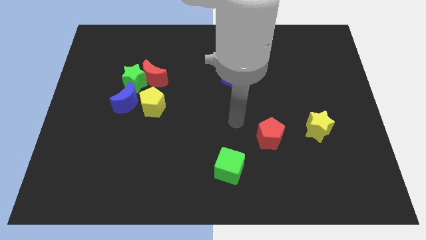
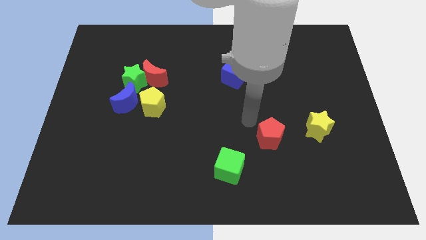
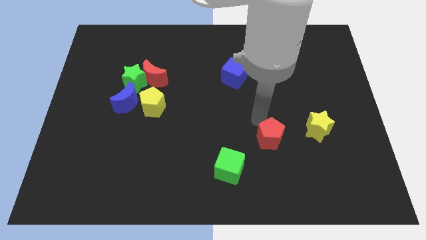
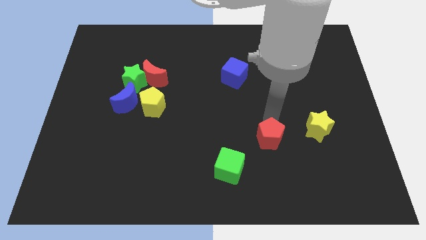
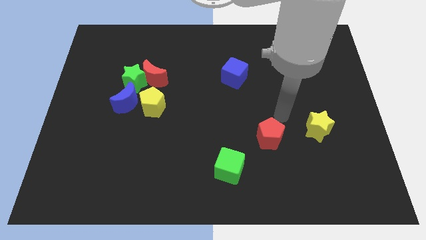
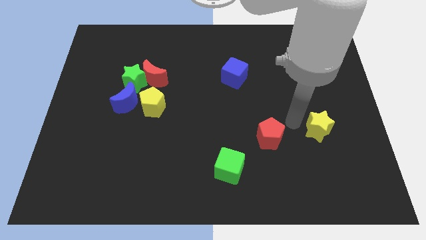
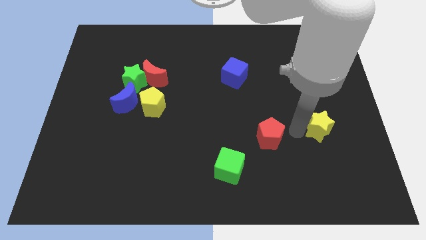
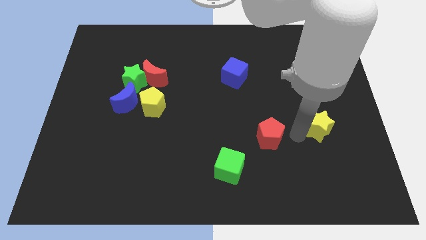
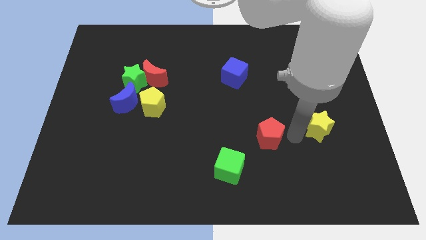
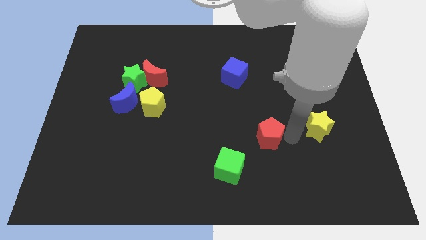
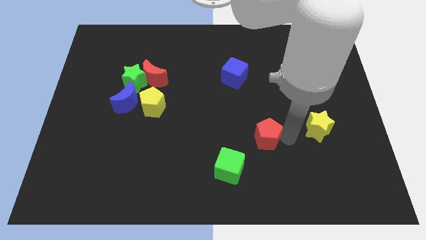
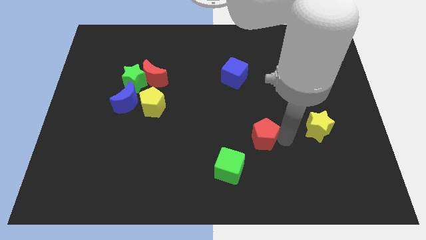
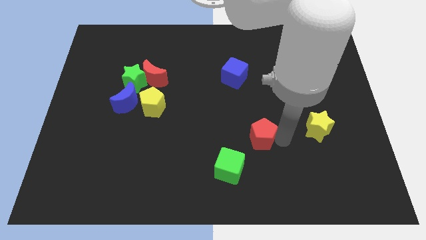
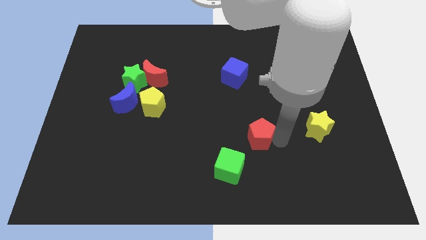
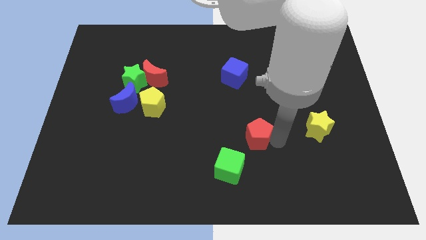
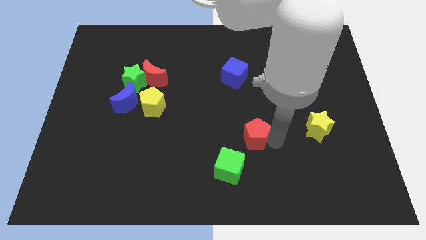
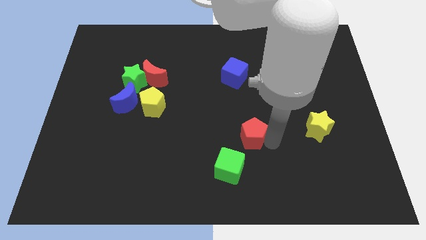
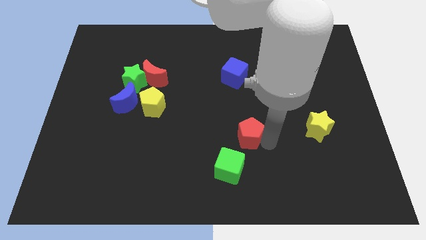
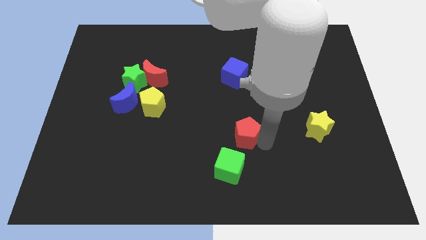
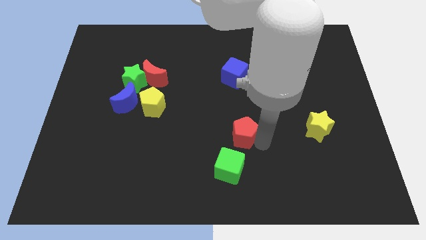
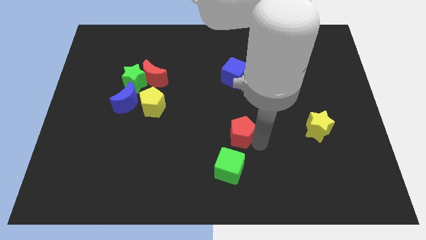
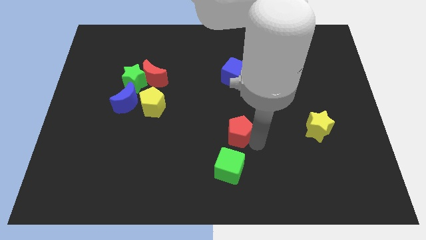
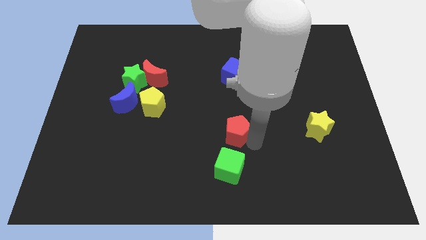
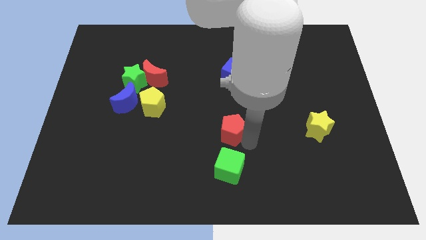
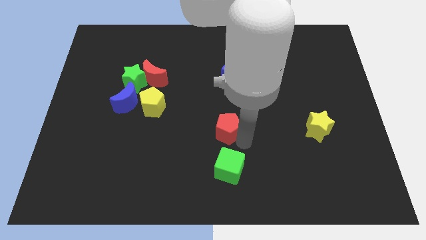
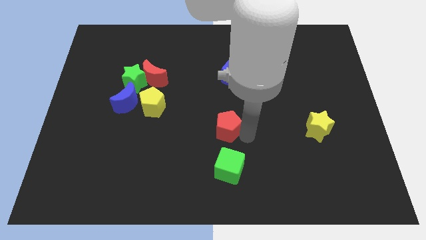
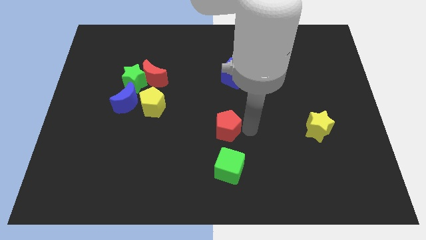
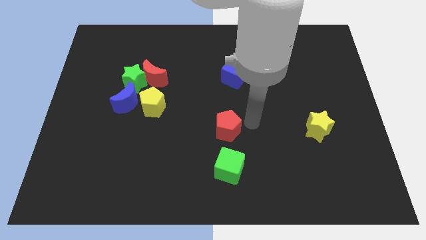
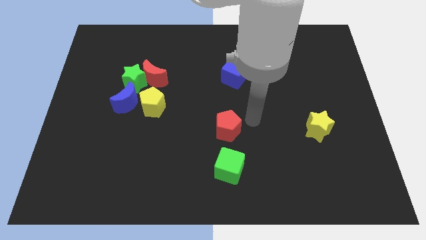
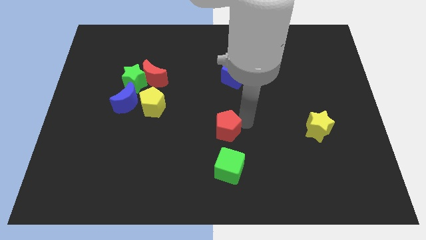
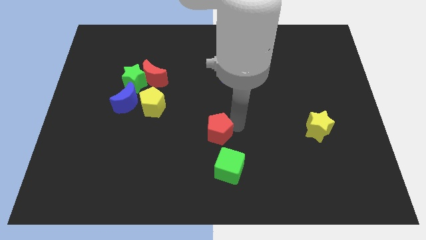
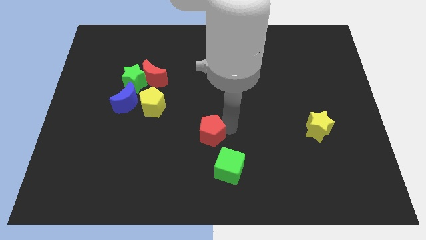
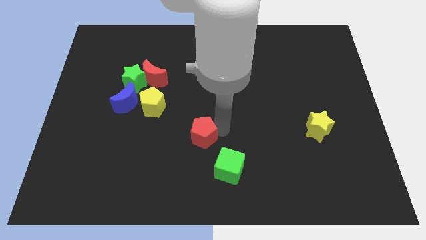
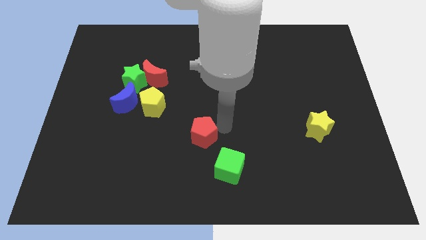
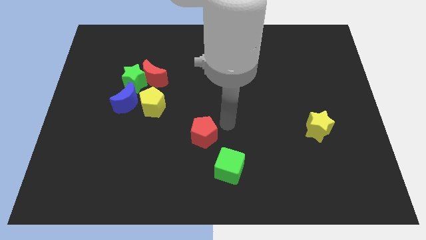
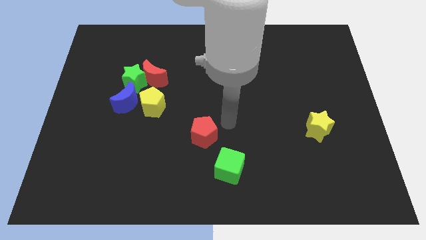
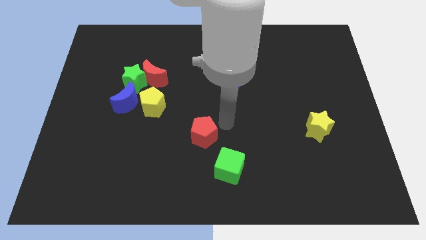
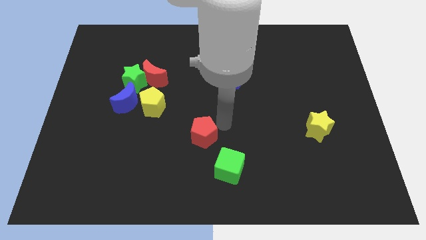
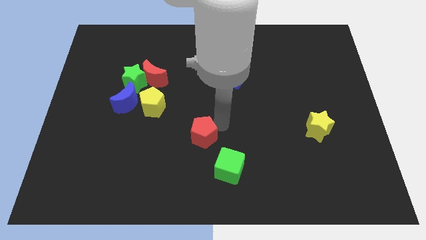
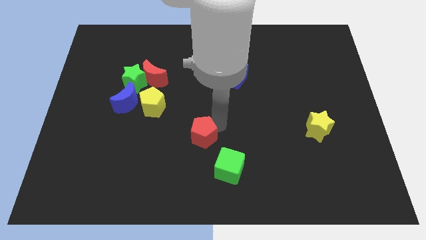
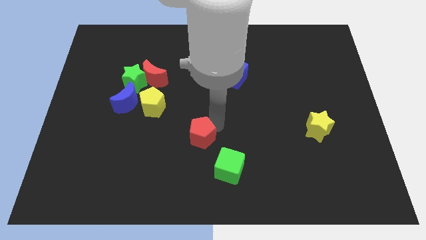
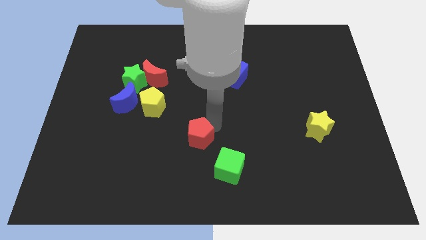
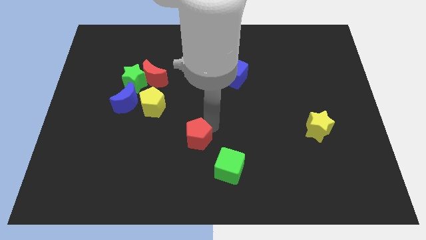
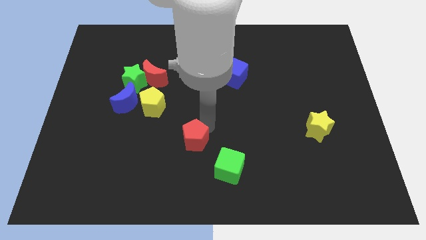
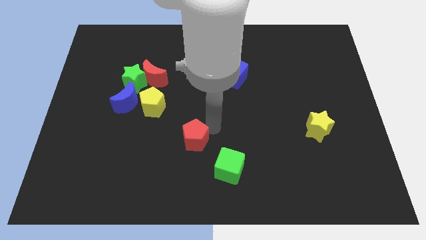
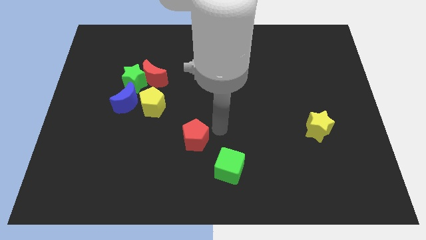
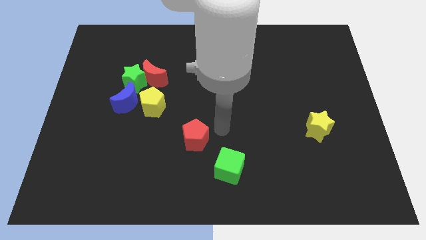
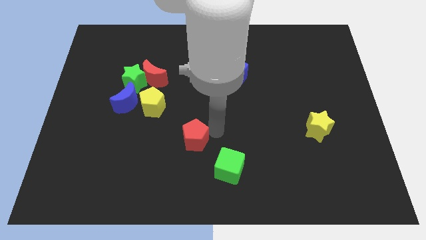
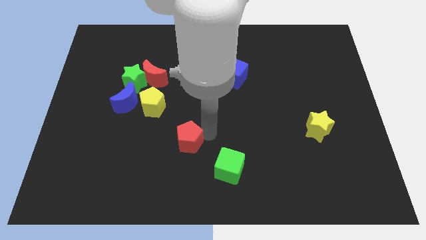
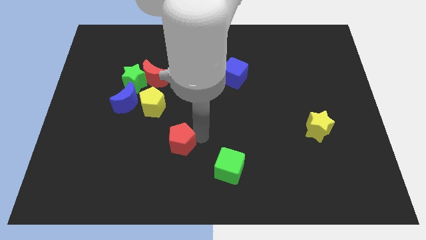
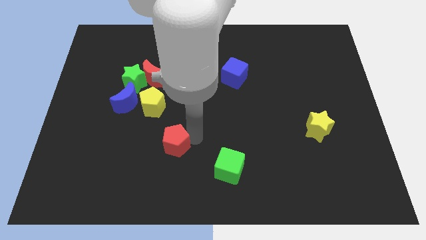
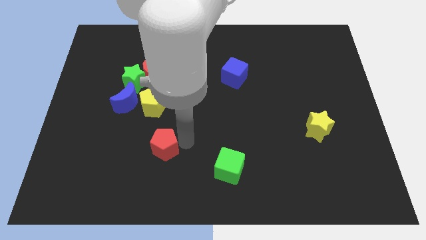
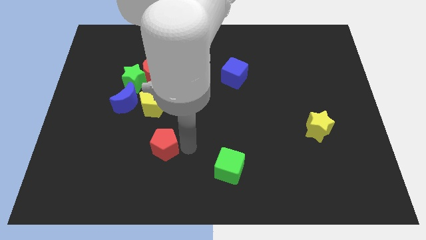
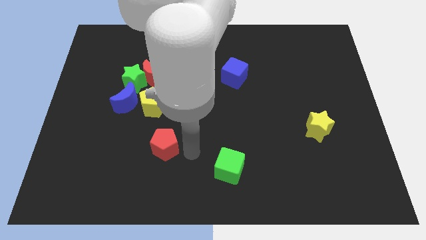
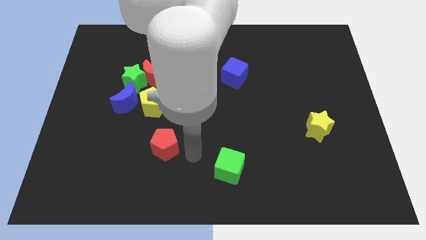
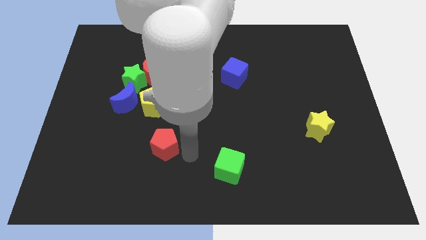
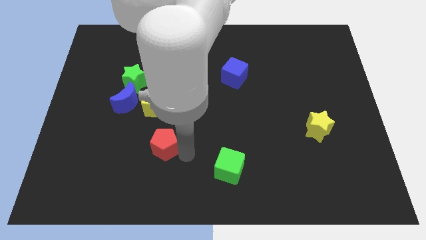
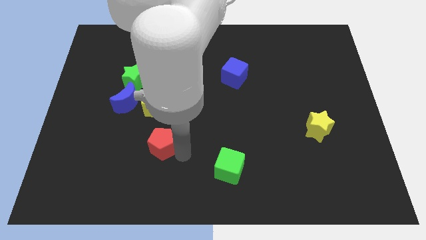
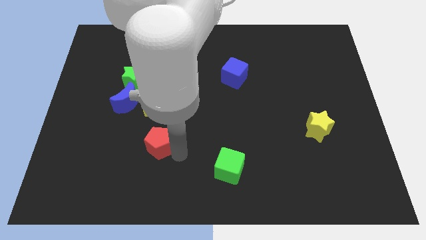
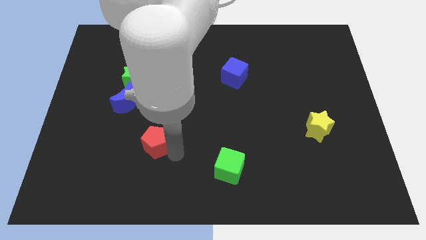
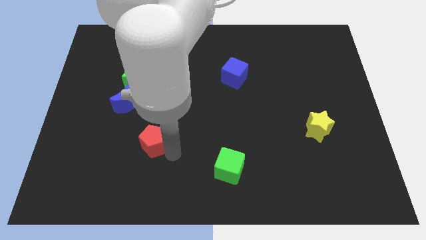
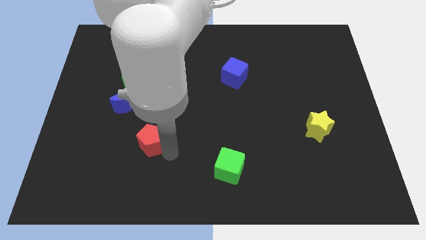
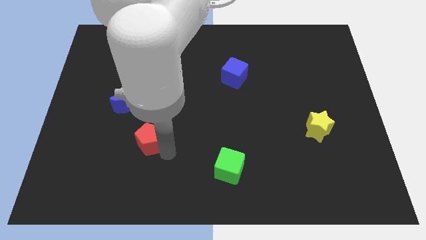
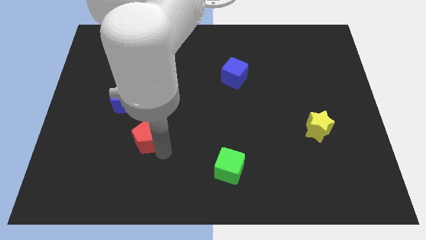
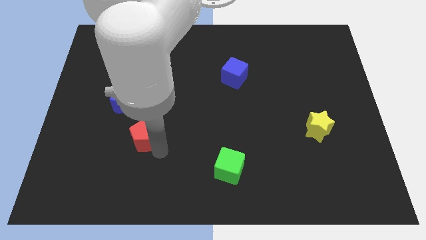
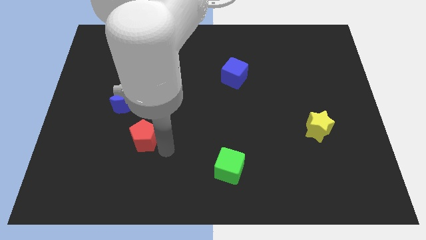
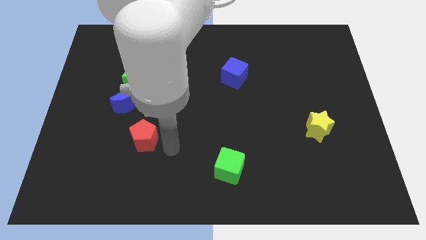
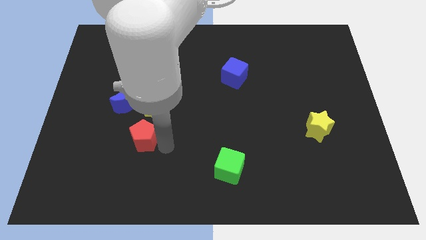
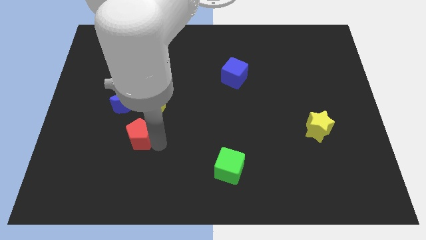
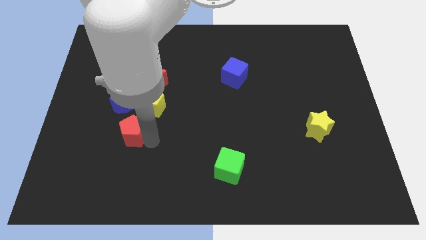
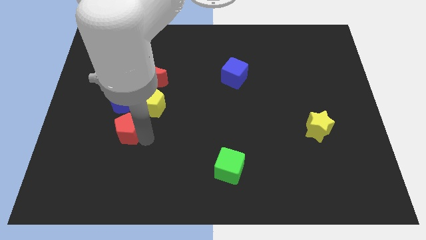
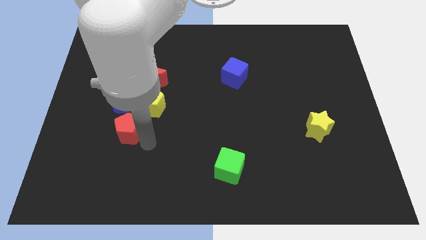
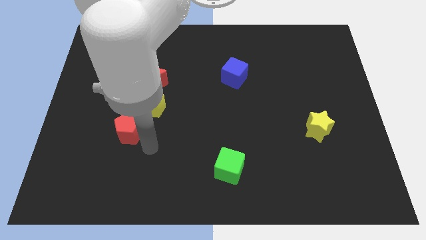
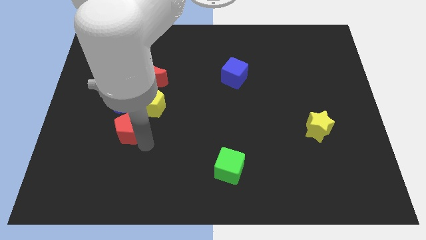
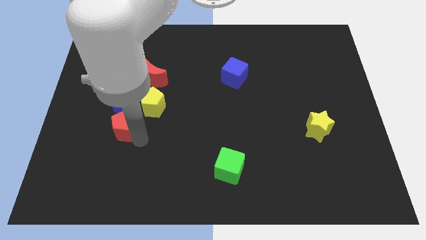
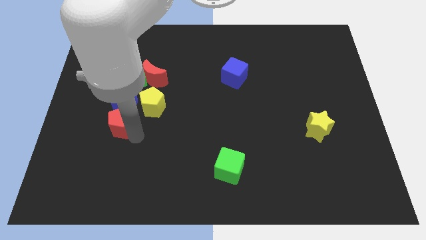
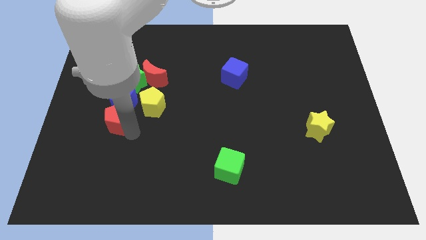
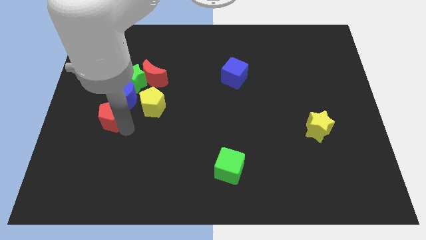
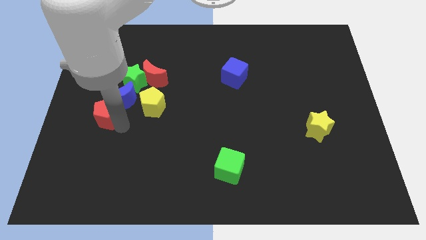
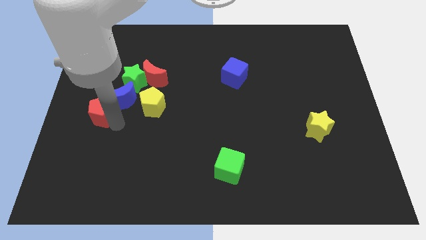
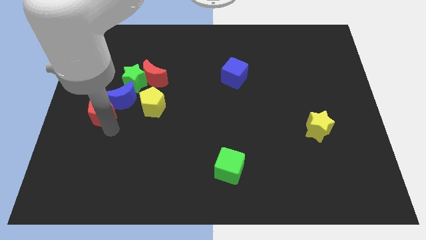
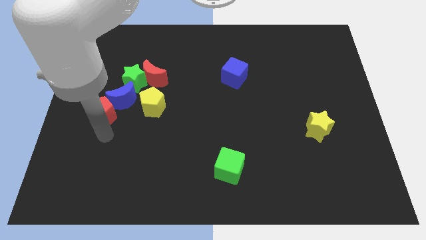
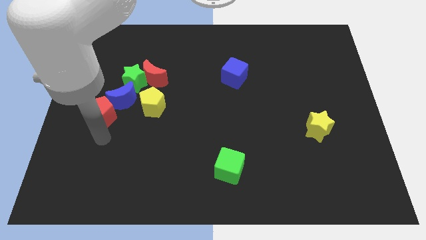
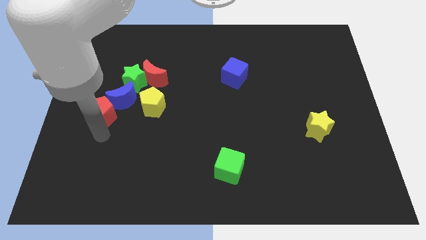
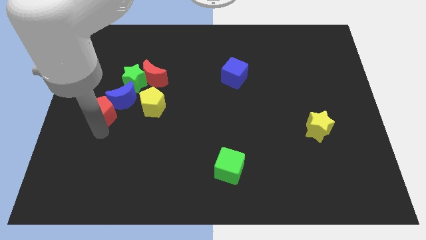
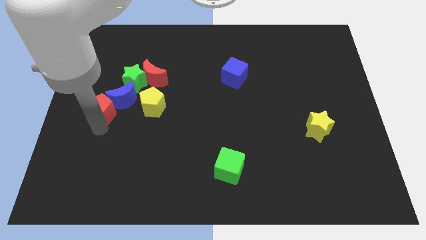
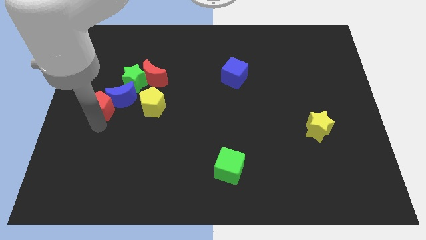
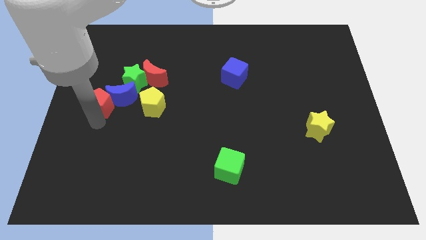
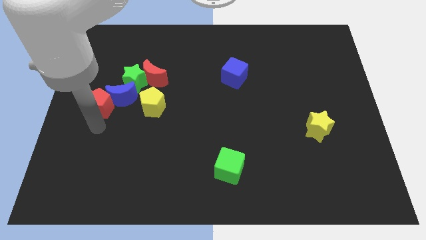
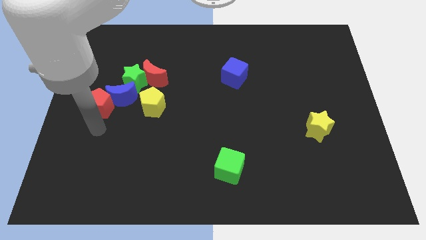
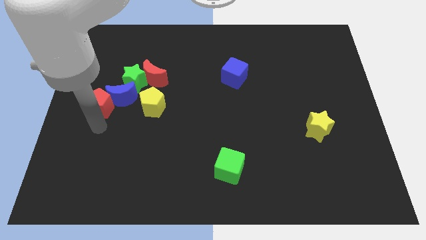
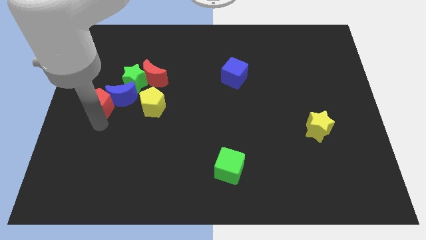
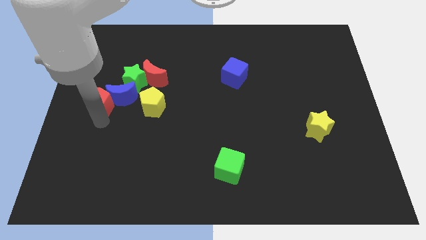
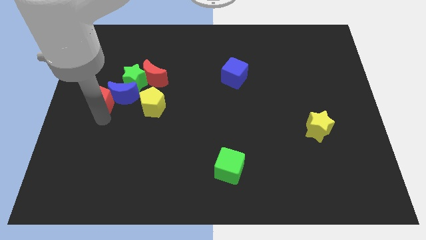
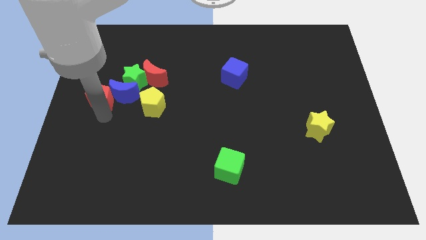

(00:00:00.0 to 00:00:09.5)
put the red pentagon diagonally up and to the left of the blue moon
